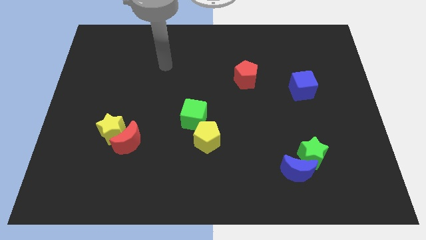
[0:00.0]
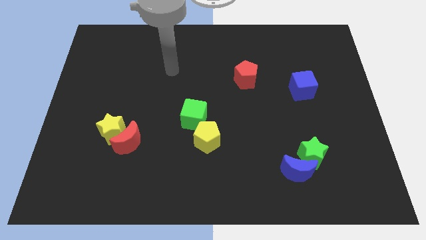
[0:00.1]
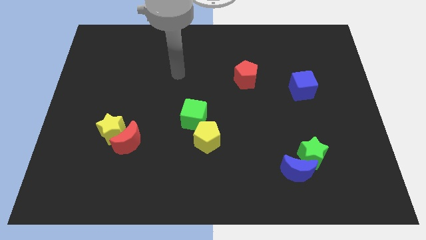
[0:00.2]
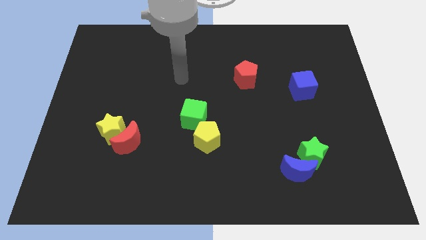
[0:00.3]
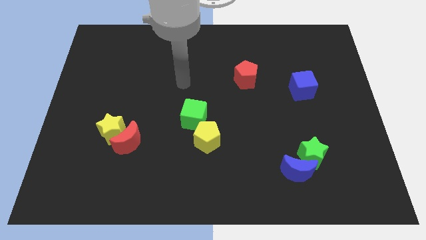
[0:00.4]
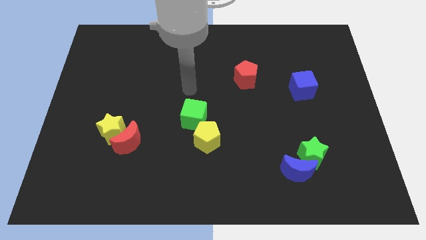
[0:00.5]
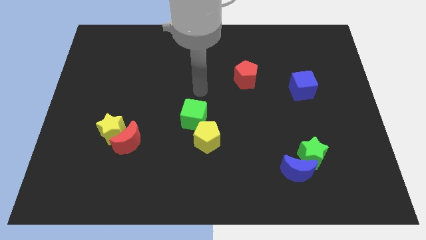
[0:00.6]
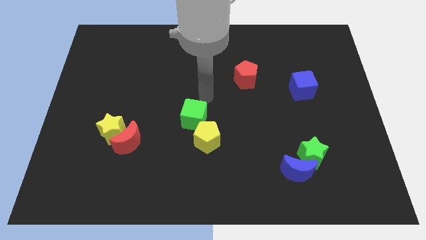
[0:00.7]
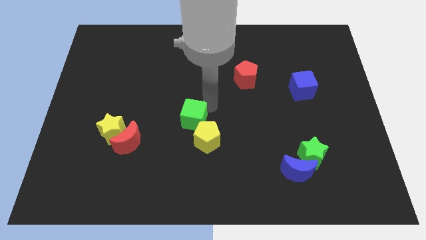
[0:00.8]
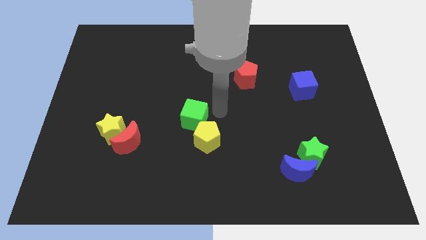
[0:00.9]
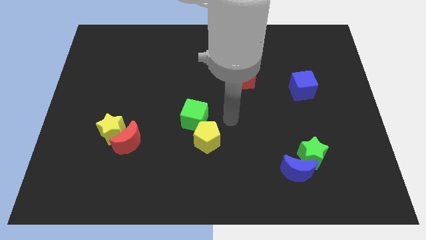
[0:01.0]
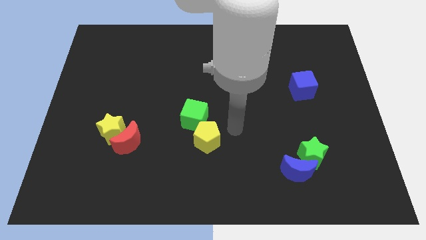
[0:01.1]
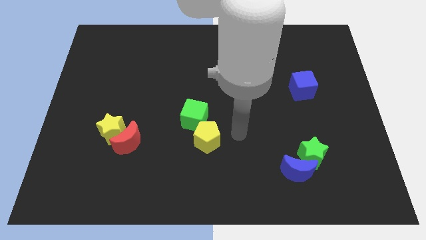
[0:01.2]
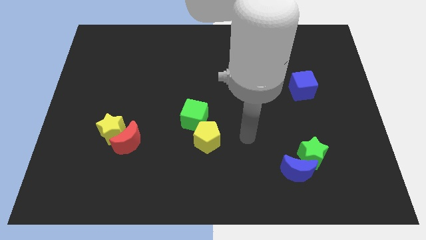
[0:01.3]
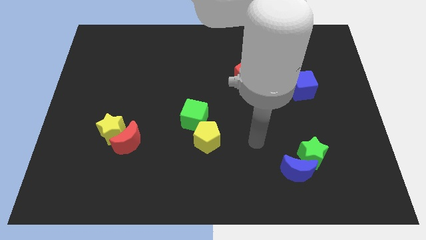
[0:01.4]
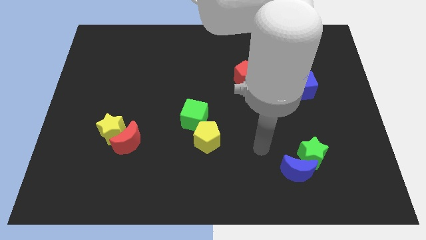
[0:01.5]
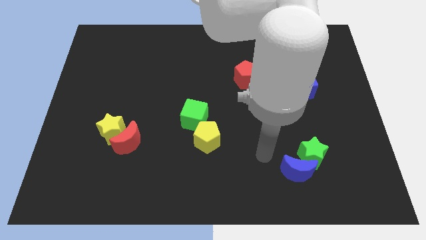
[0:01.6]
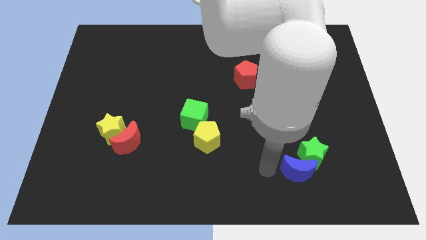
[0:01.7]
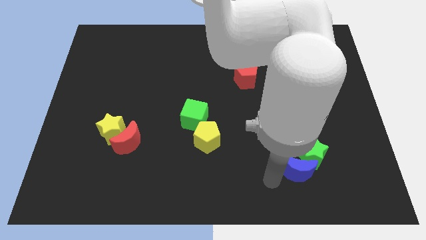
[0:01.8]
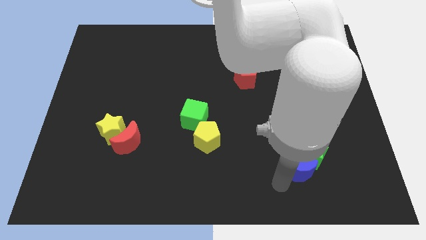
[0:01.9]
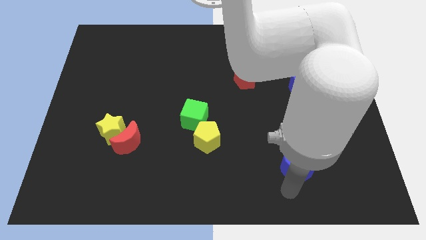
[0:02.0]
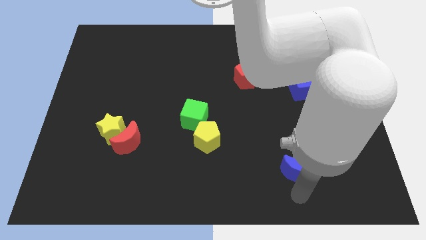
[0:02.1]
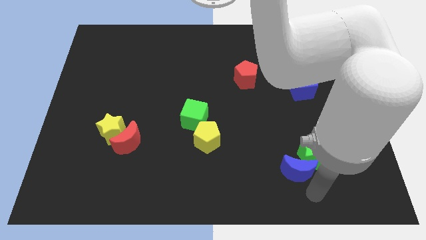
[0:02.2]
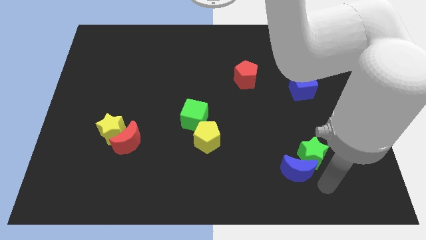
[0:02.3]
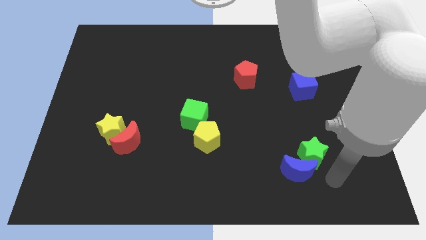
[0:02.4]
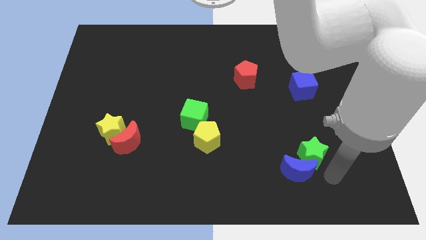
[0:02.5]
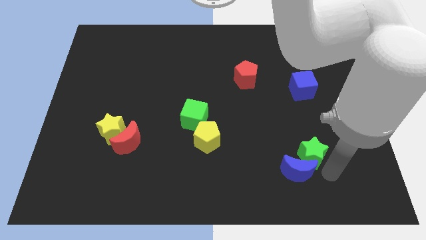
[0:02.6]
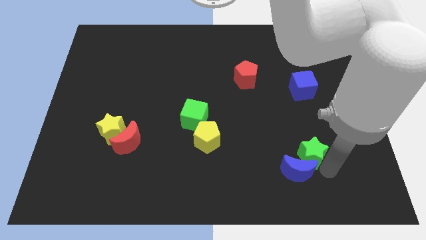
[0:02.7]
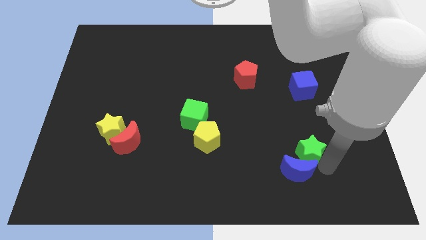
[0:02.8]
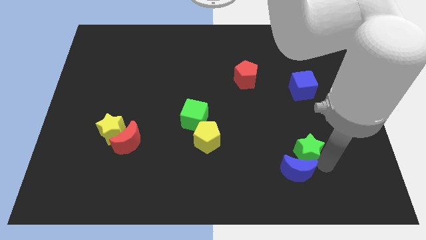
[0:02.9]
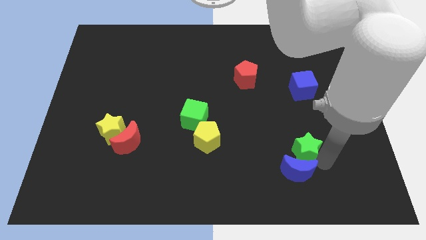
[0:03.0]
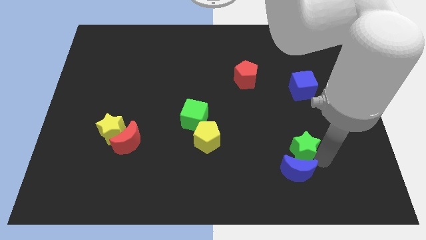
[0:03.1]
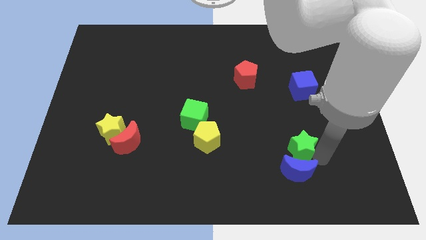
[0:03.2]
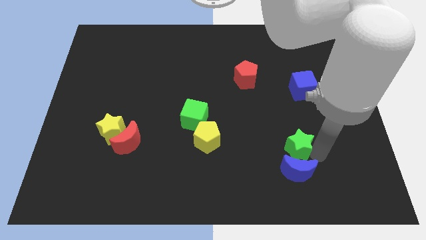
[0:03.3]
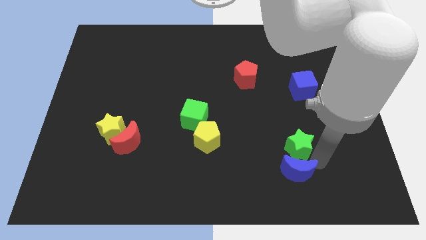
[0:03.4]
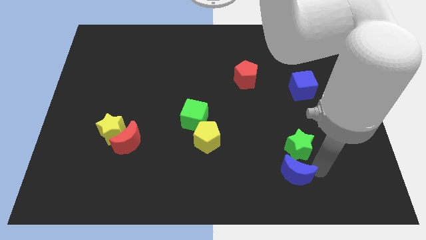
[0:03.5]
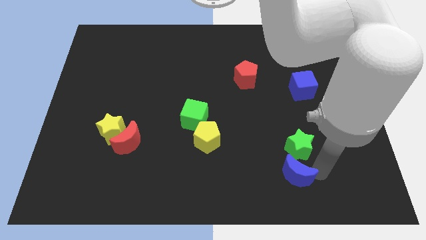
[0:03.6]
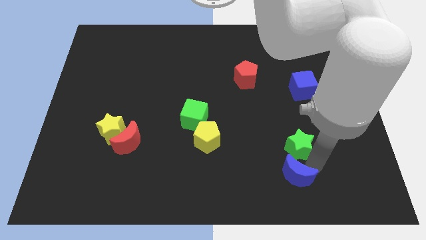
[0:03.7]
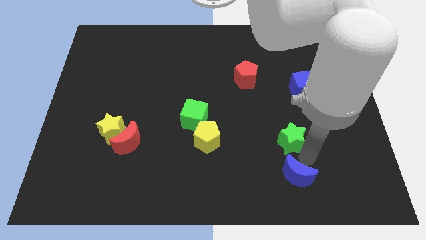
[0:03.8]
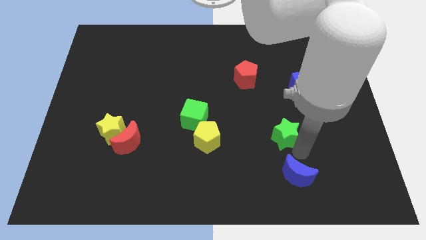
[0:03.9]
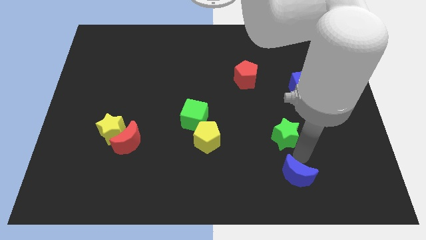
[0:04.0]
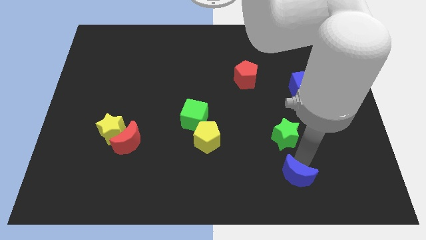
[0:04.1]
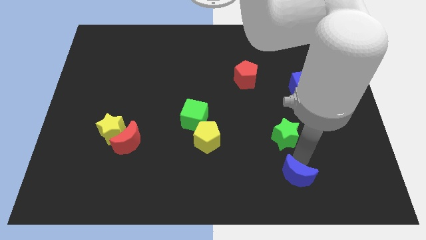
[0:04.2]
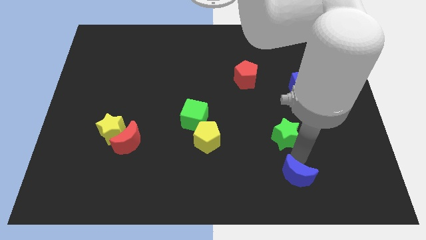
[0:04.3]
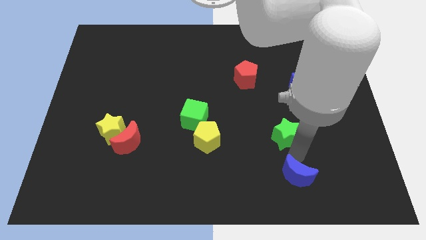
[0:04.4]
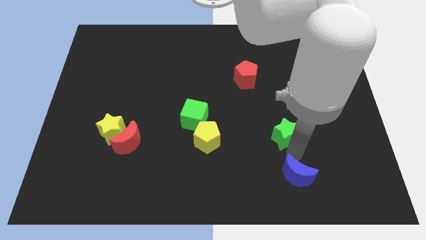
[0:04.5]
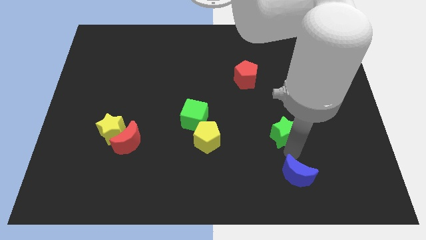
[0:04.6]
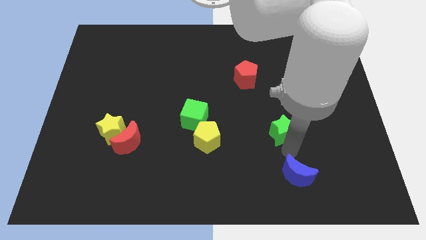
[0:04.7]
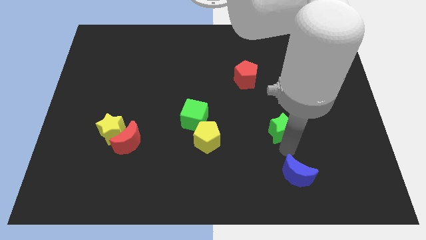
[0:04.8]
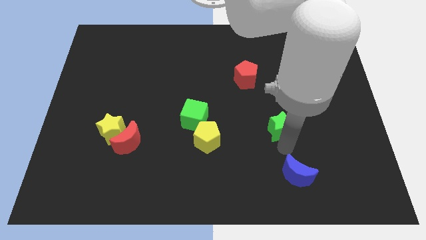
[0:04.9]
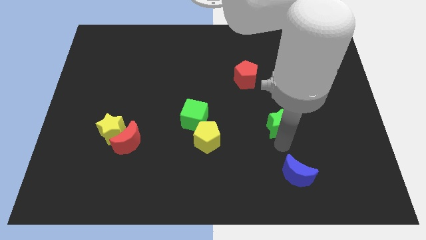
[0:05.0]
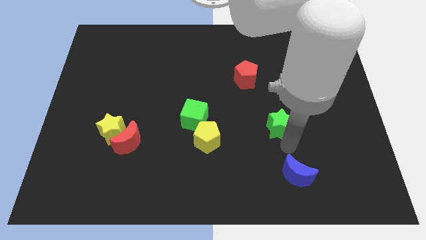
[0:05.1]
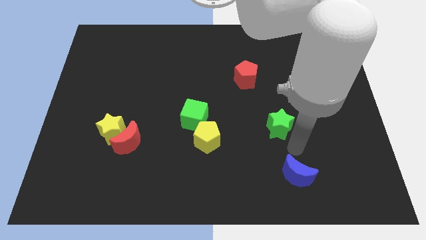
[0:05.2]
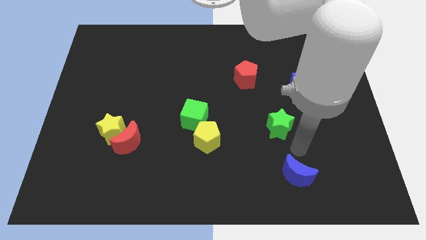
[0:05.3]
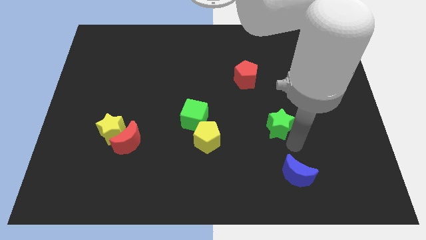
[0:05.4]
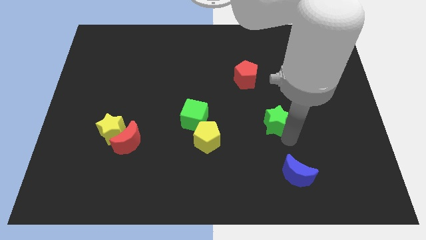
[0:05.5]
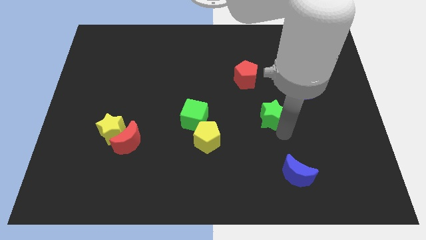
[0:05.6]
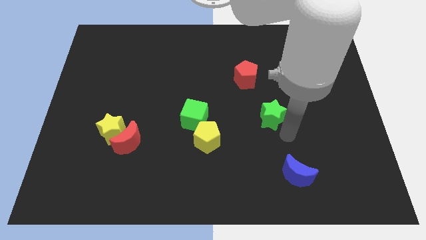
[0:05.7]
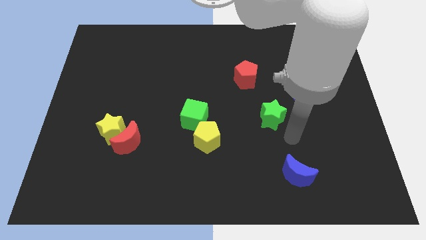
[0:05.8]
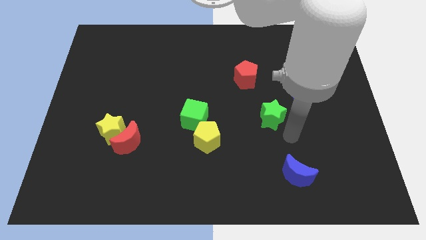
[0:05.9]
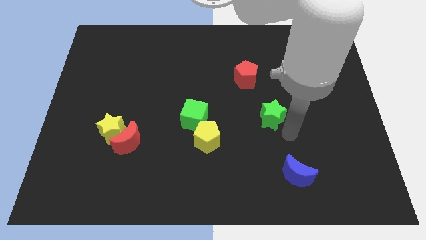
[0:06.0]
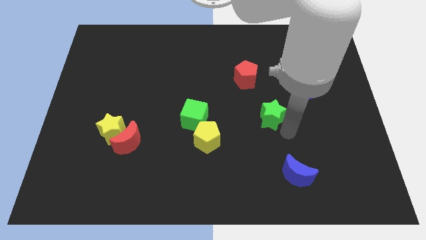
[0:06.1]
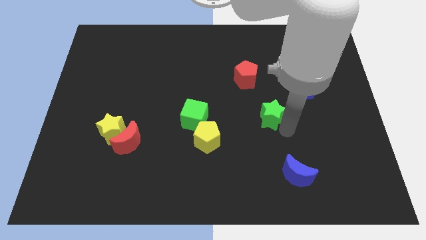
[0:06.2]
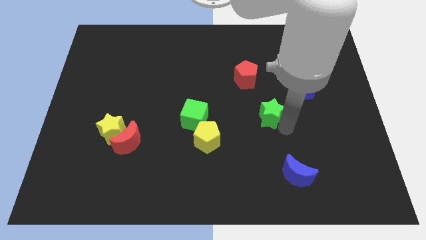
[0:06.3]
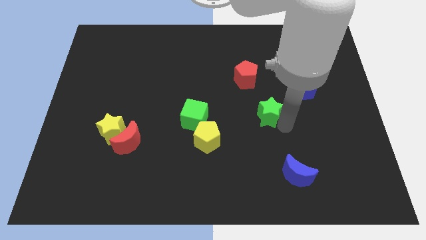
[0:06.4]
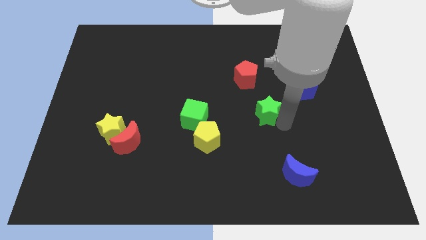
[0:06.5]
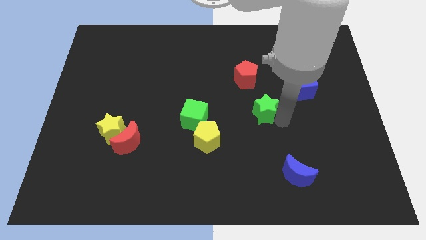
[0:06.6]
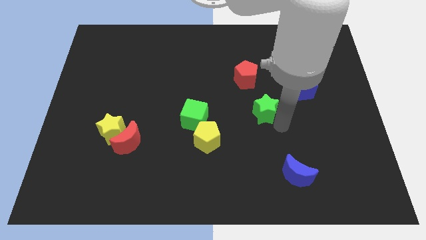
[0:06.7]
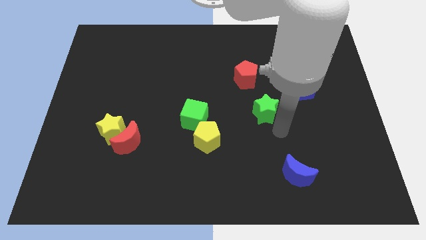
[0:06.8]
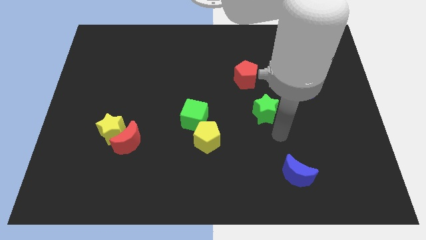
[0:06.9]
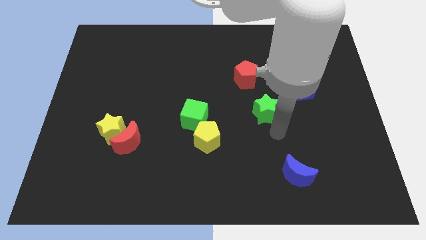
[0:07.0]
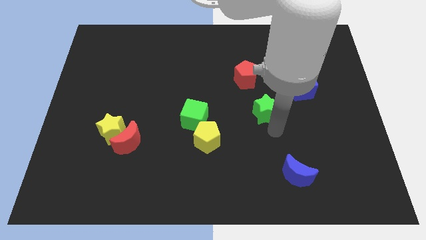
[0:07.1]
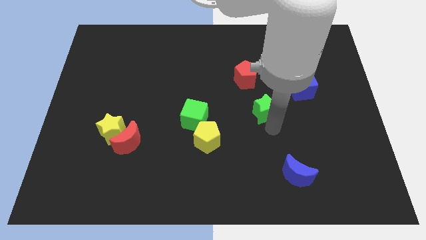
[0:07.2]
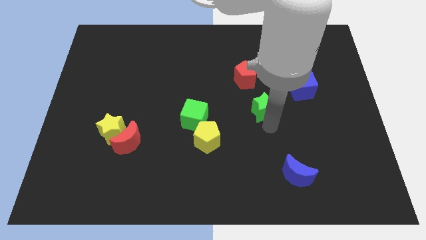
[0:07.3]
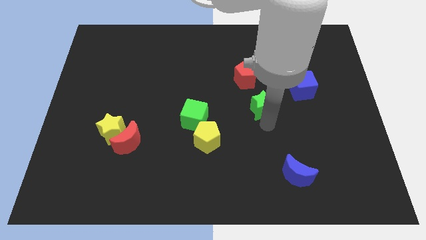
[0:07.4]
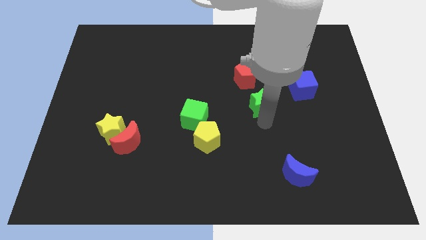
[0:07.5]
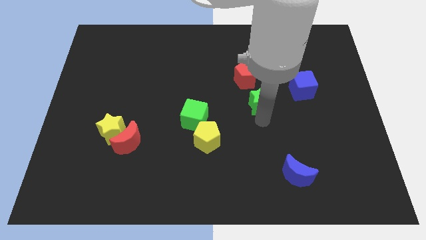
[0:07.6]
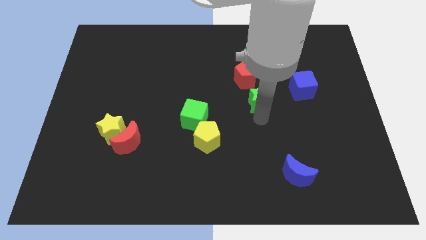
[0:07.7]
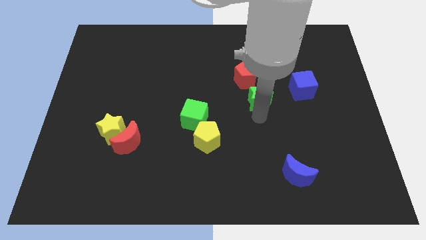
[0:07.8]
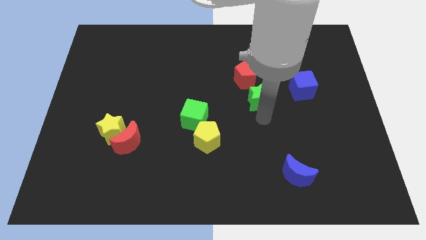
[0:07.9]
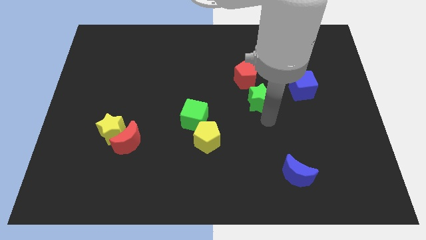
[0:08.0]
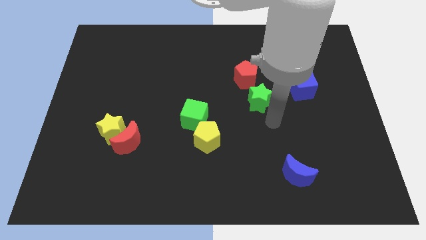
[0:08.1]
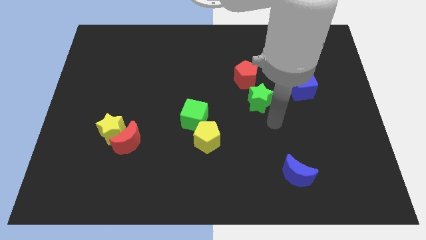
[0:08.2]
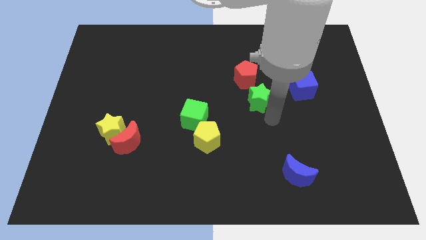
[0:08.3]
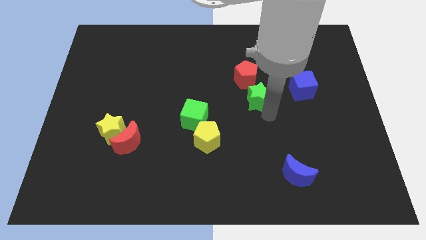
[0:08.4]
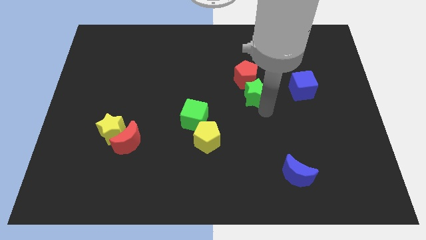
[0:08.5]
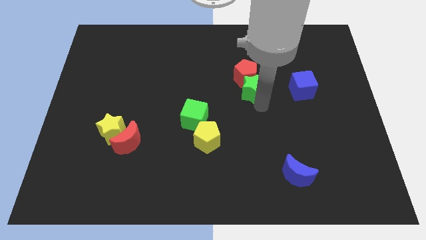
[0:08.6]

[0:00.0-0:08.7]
put the green star to the red pentagon
